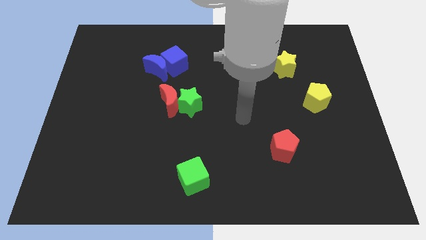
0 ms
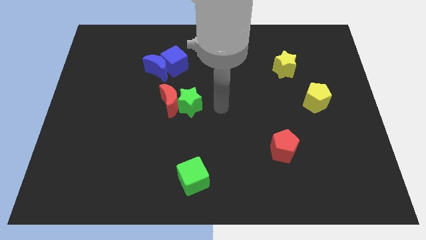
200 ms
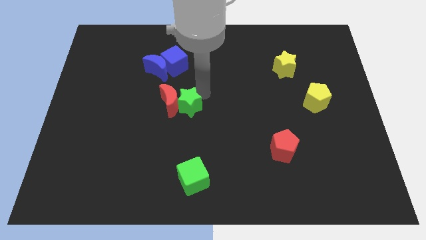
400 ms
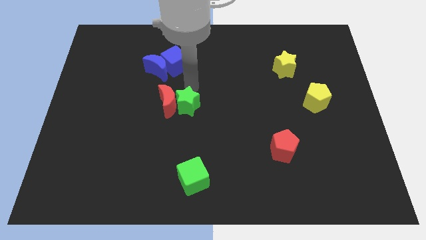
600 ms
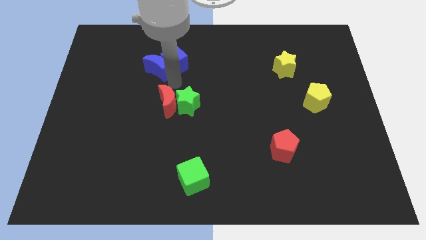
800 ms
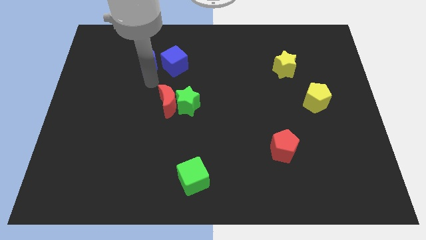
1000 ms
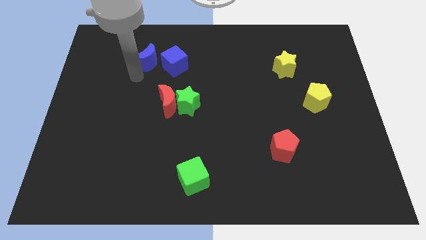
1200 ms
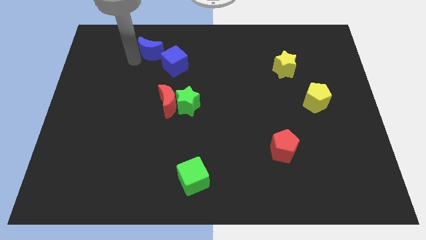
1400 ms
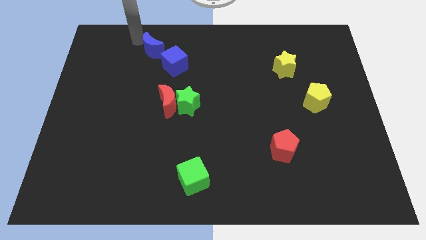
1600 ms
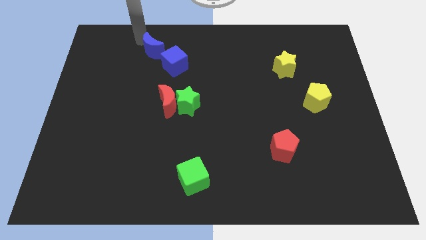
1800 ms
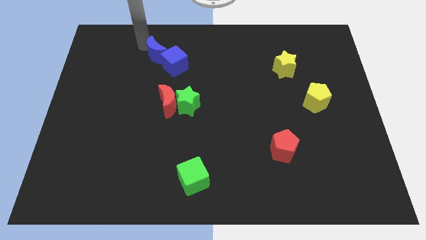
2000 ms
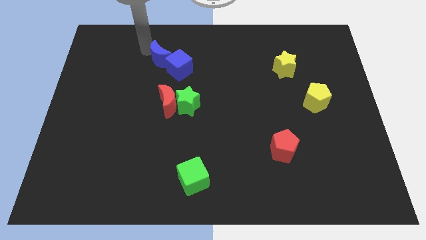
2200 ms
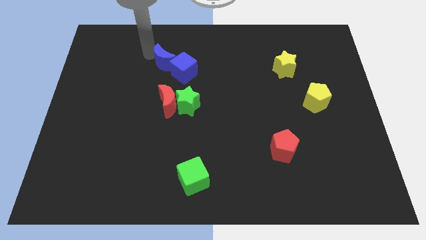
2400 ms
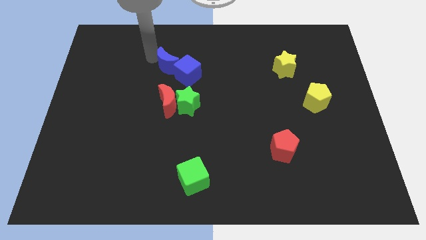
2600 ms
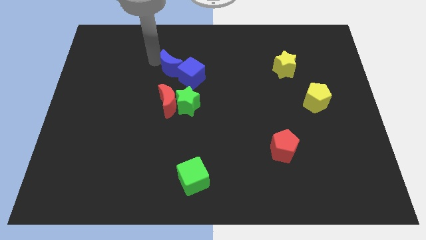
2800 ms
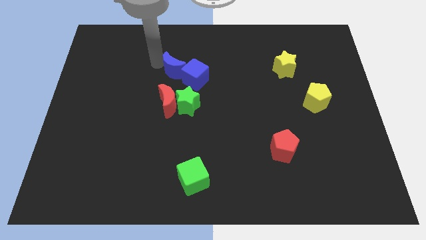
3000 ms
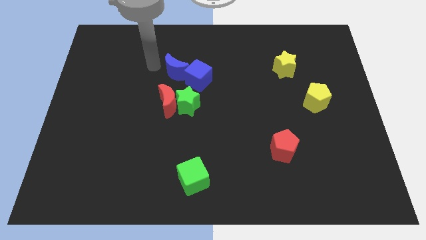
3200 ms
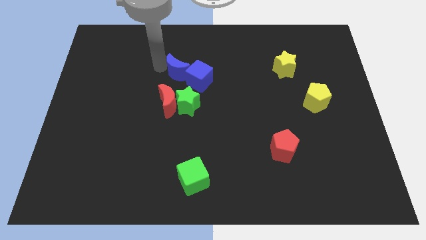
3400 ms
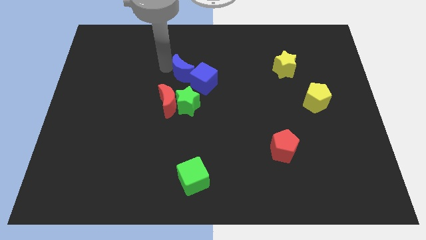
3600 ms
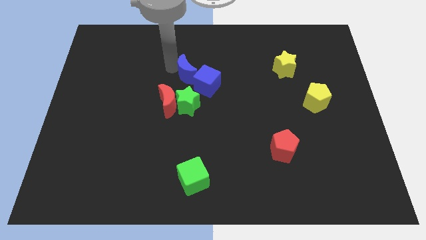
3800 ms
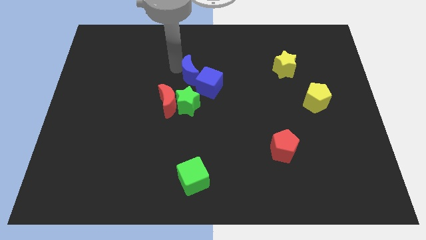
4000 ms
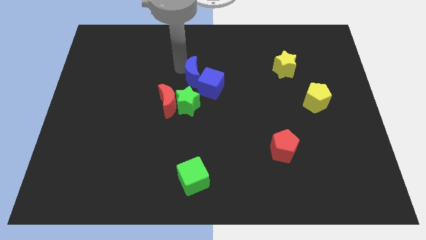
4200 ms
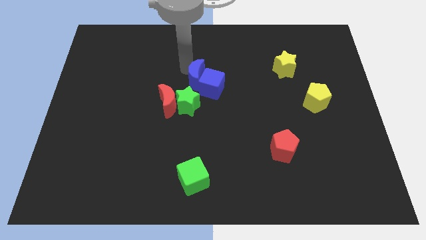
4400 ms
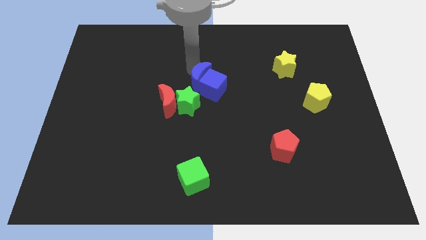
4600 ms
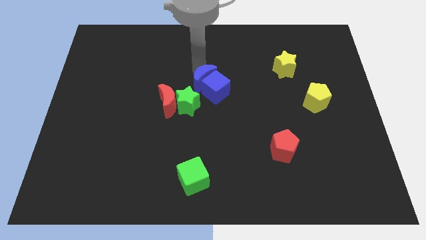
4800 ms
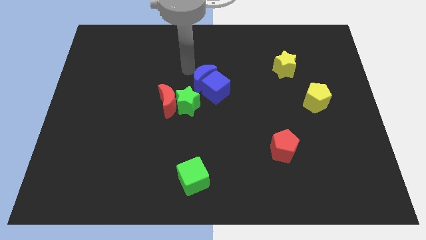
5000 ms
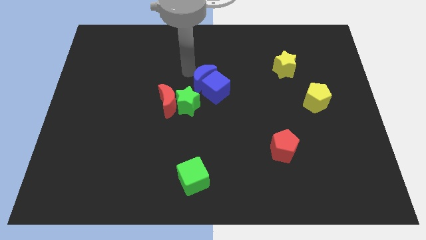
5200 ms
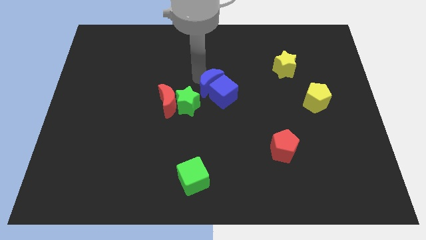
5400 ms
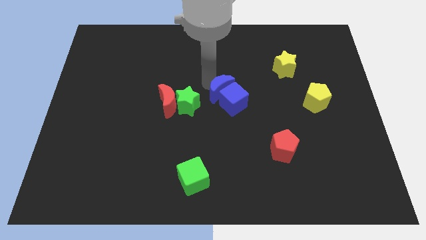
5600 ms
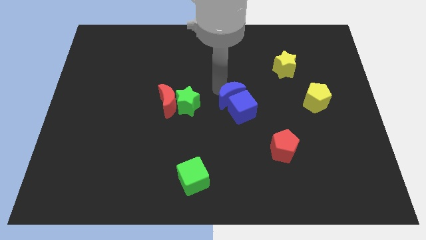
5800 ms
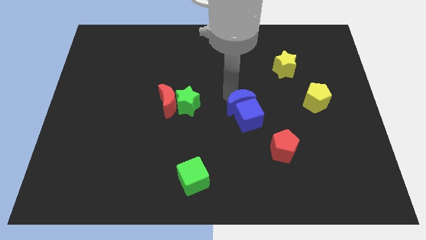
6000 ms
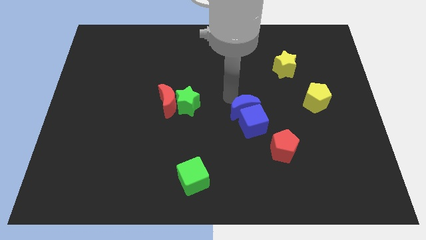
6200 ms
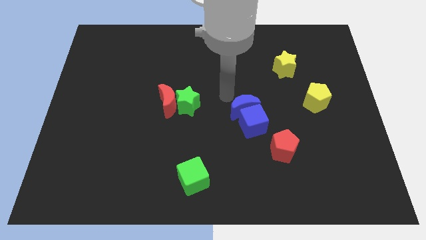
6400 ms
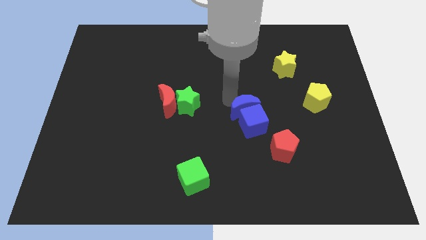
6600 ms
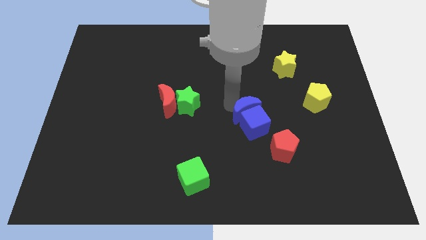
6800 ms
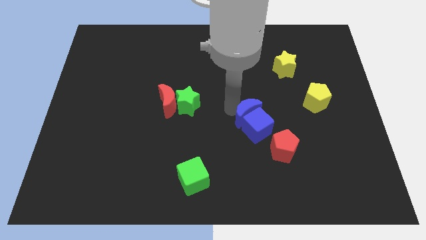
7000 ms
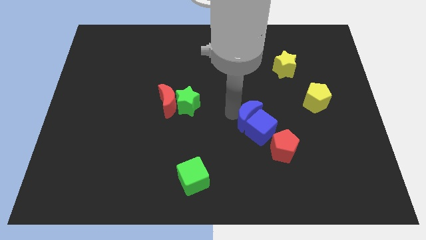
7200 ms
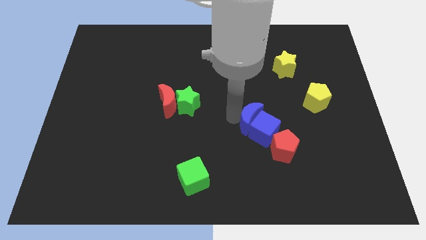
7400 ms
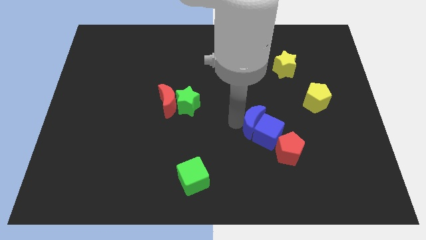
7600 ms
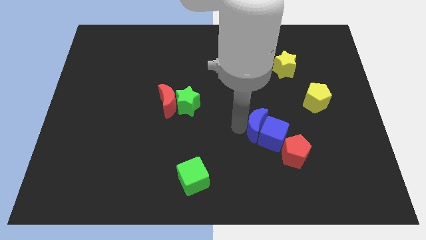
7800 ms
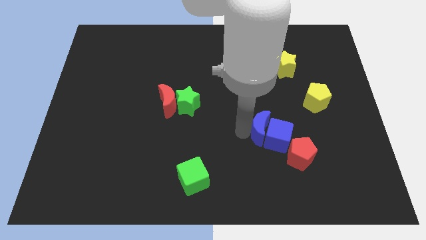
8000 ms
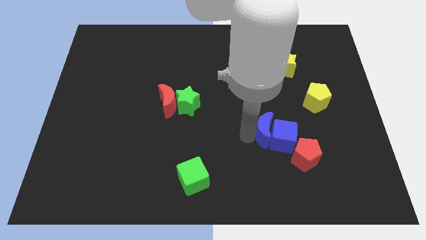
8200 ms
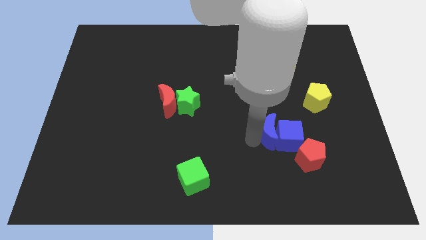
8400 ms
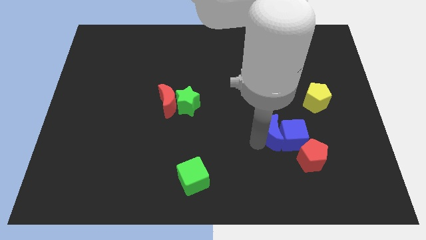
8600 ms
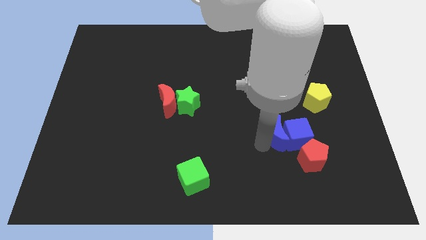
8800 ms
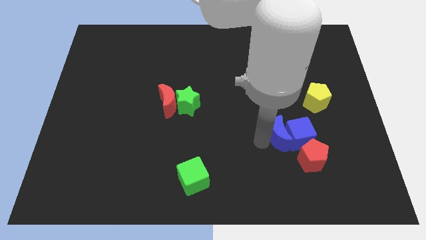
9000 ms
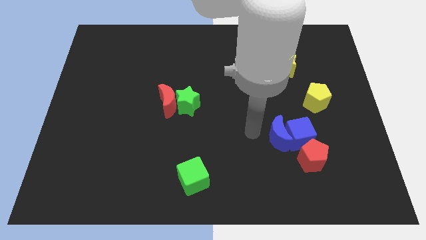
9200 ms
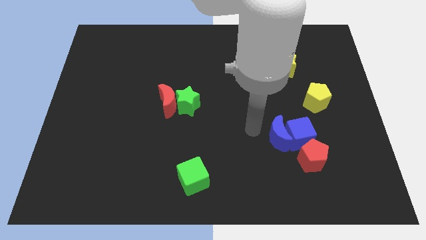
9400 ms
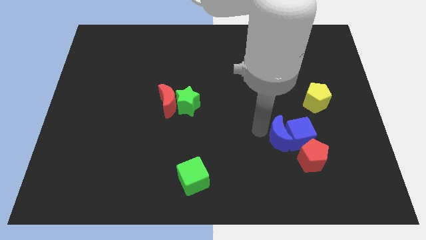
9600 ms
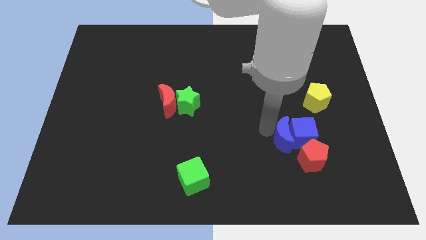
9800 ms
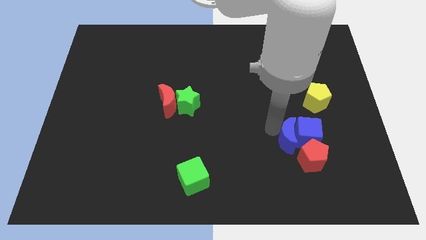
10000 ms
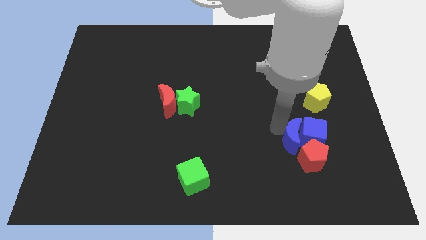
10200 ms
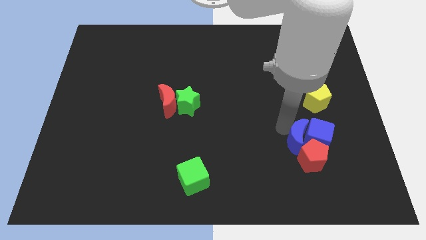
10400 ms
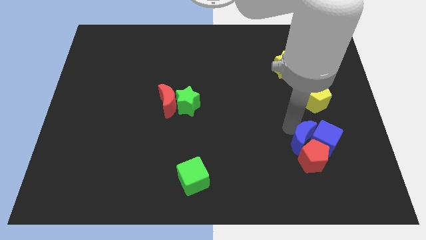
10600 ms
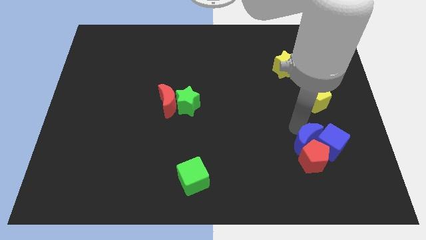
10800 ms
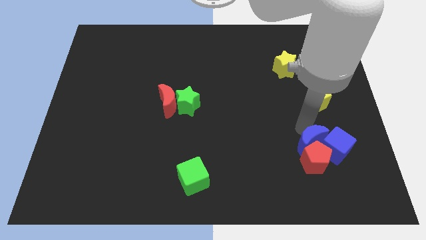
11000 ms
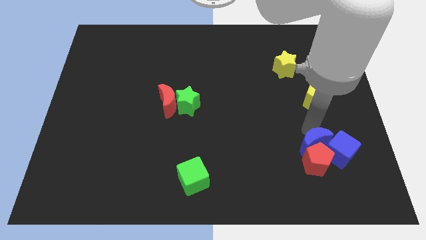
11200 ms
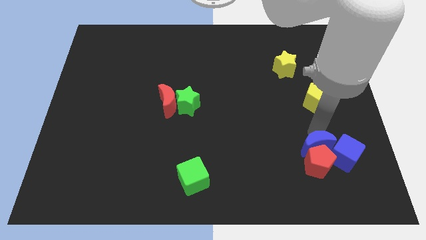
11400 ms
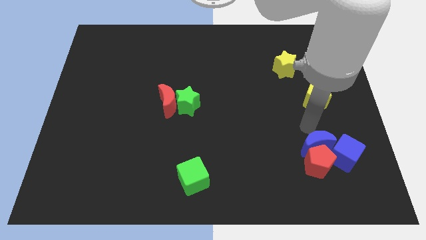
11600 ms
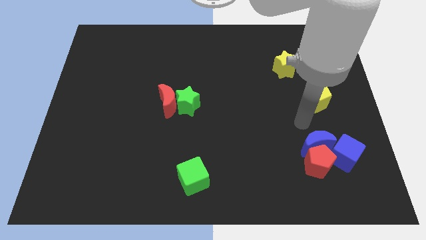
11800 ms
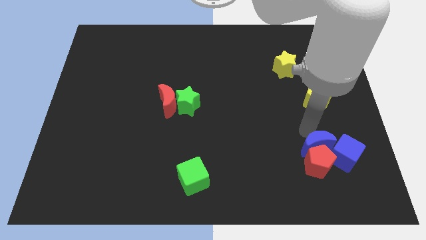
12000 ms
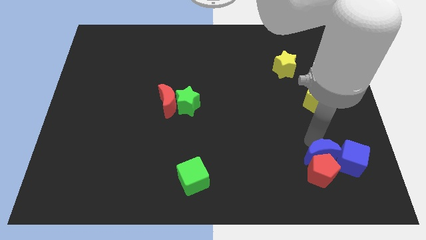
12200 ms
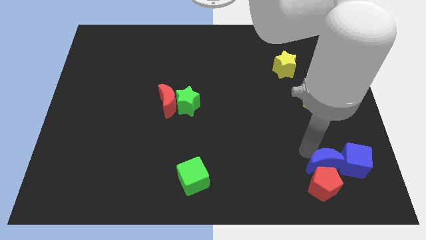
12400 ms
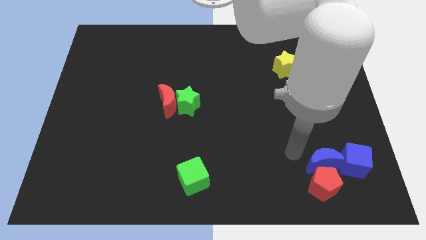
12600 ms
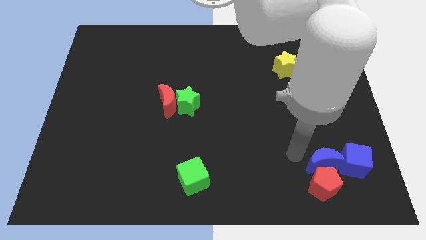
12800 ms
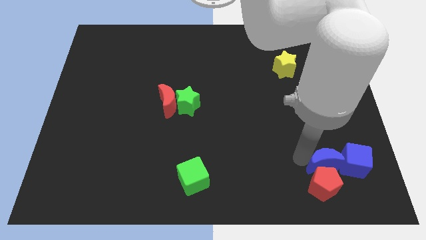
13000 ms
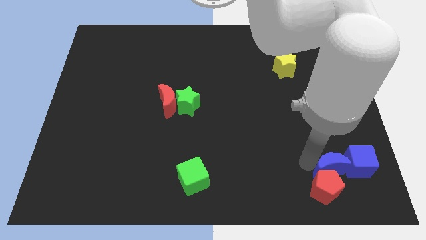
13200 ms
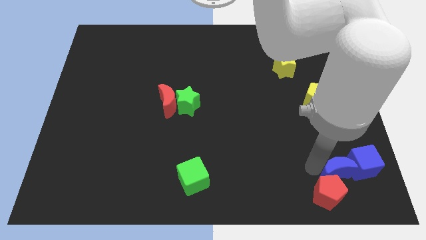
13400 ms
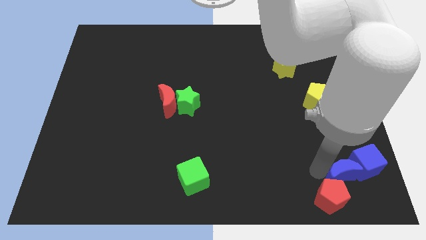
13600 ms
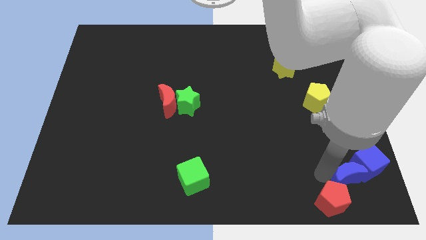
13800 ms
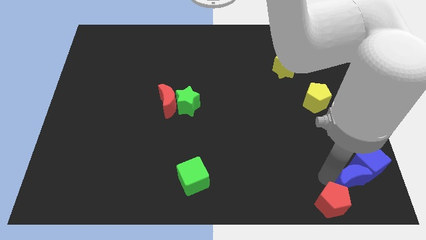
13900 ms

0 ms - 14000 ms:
slide the blue moon to the bottom right corner
